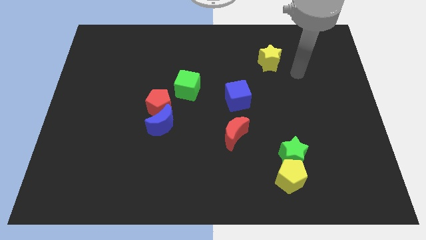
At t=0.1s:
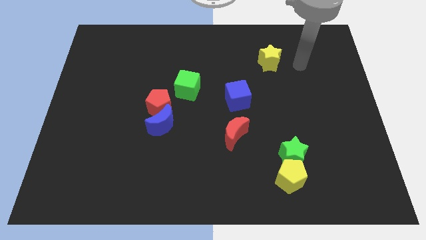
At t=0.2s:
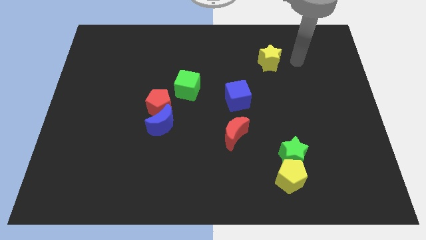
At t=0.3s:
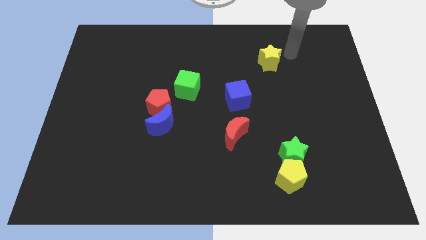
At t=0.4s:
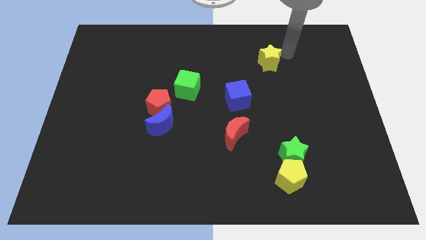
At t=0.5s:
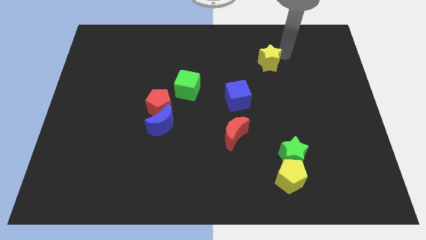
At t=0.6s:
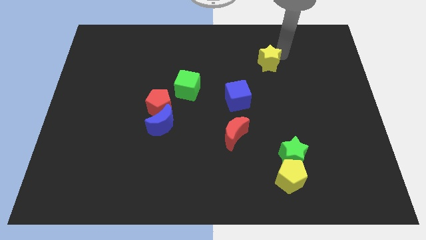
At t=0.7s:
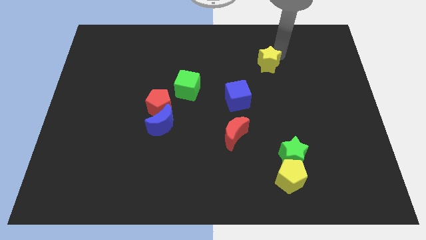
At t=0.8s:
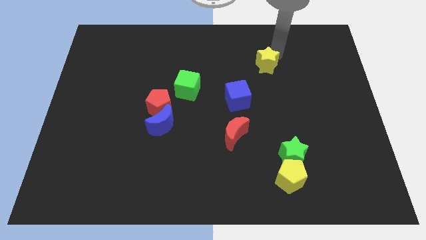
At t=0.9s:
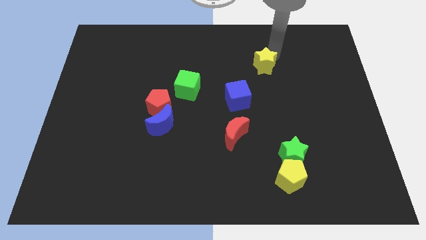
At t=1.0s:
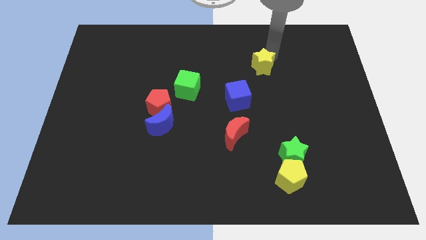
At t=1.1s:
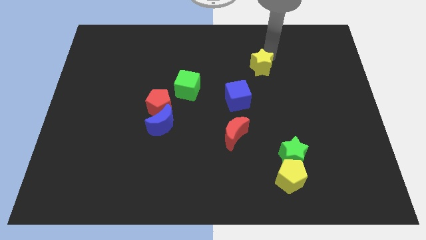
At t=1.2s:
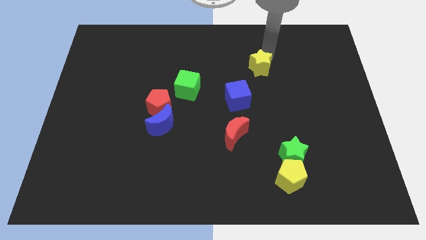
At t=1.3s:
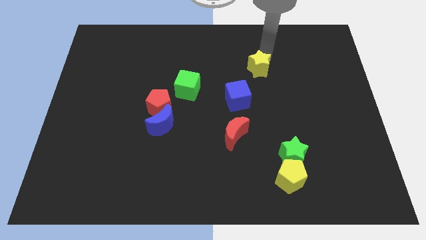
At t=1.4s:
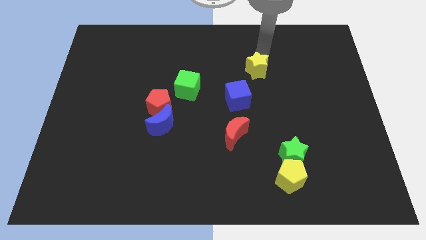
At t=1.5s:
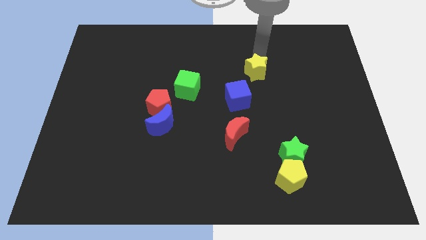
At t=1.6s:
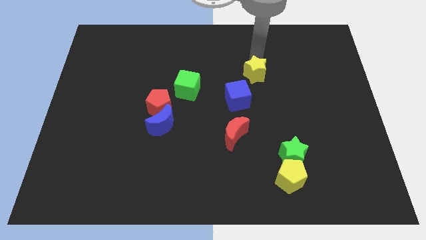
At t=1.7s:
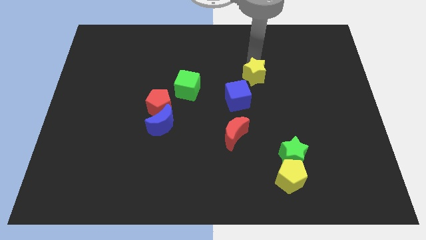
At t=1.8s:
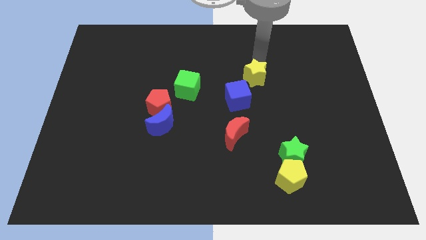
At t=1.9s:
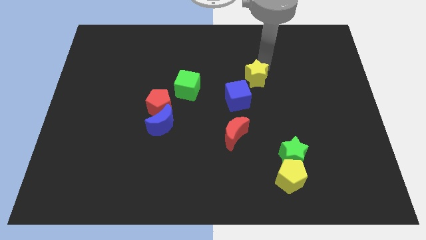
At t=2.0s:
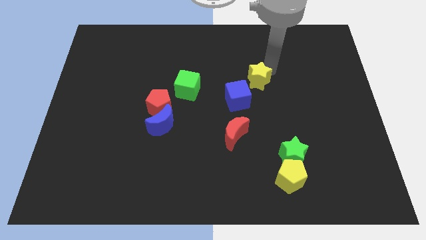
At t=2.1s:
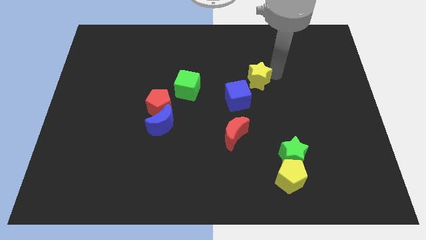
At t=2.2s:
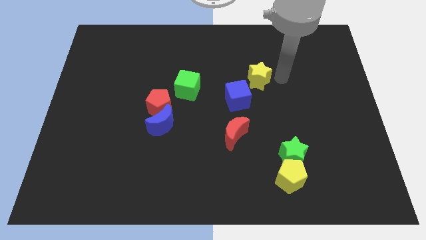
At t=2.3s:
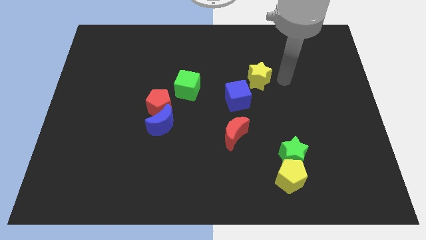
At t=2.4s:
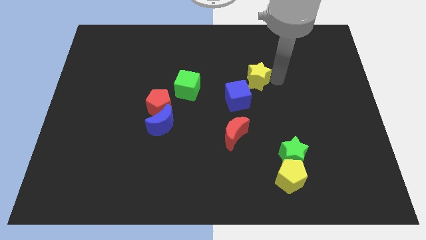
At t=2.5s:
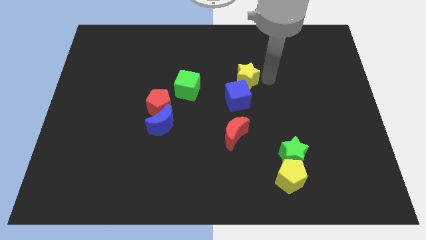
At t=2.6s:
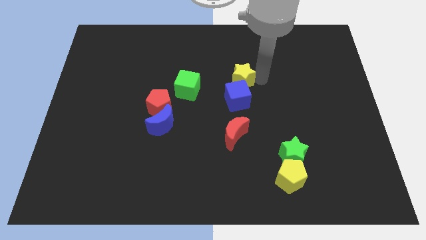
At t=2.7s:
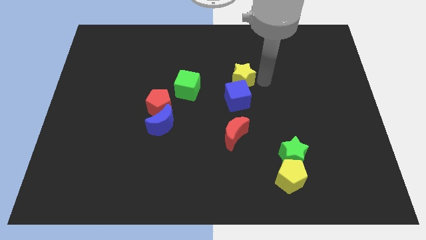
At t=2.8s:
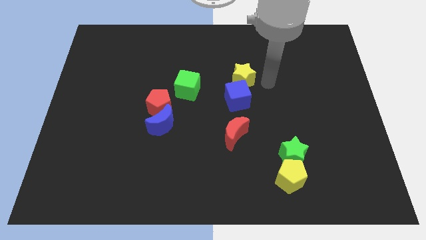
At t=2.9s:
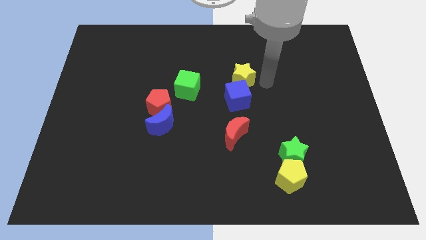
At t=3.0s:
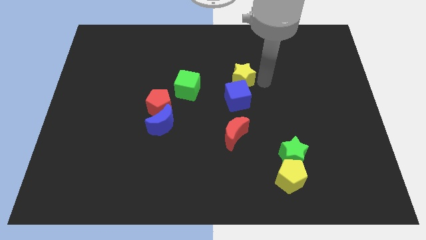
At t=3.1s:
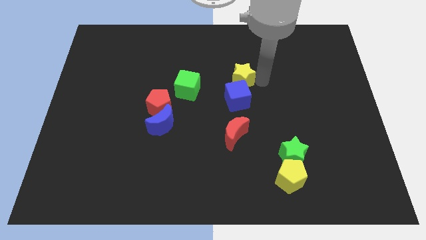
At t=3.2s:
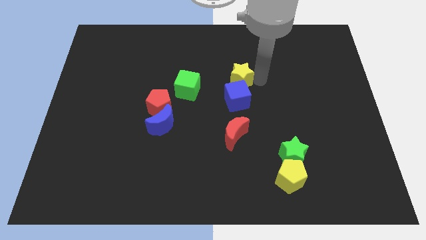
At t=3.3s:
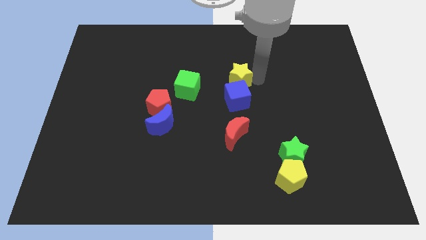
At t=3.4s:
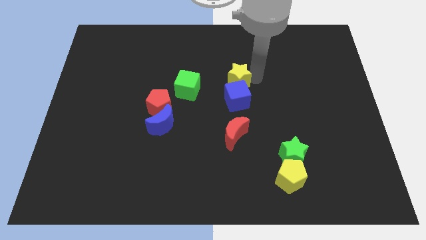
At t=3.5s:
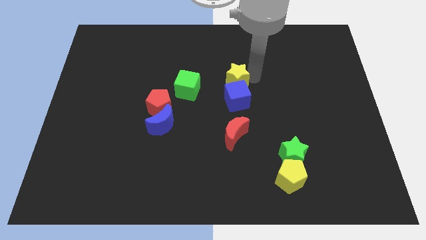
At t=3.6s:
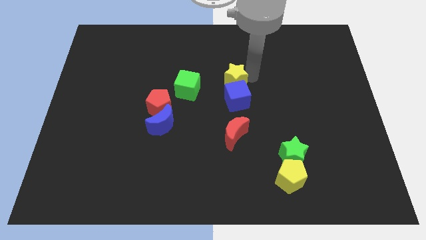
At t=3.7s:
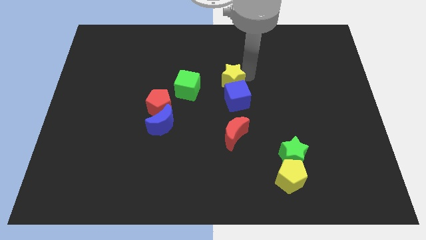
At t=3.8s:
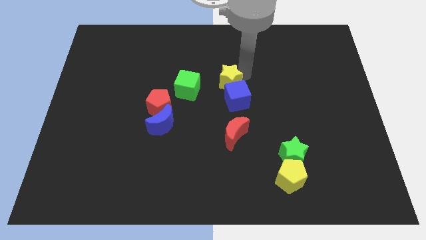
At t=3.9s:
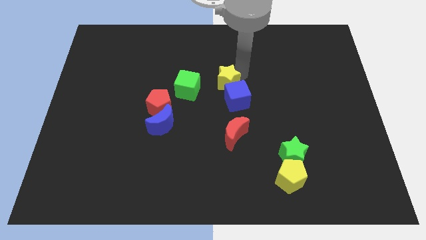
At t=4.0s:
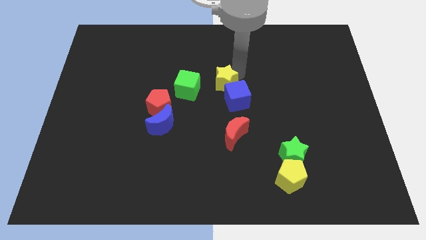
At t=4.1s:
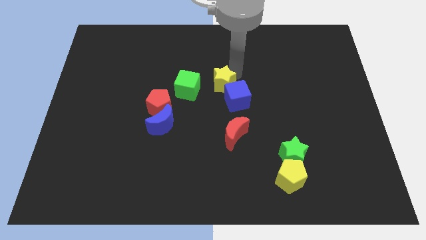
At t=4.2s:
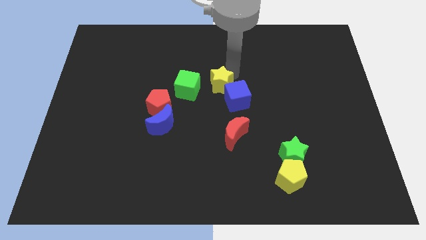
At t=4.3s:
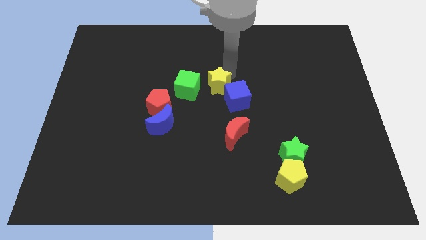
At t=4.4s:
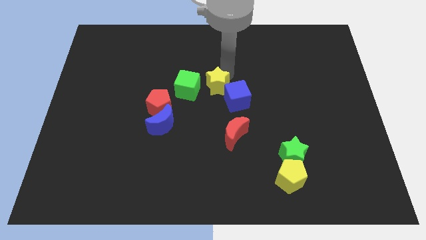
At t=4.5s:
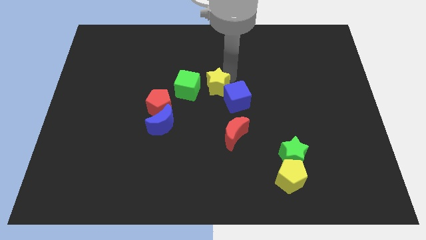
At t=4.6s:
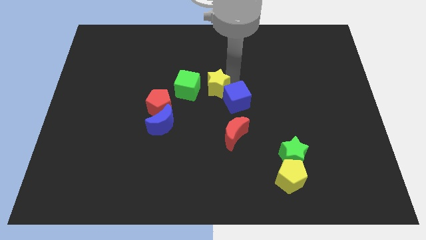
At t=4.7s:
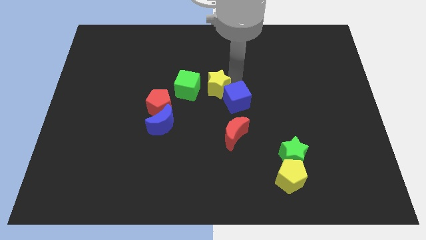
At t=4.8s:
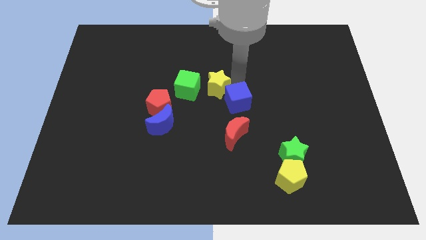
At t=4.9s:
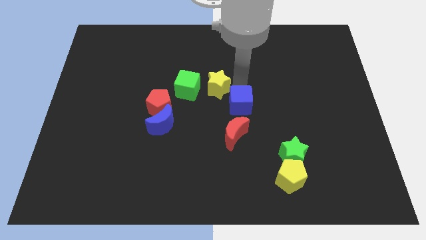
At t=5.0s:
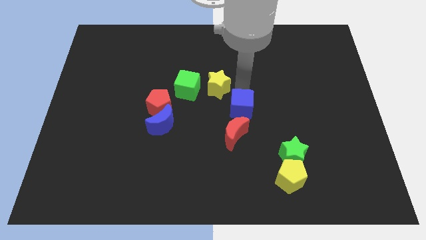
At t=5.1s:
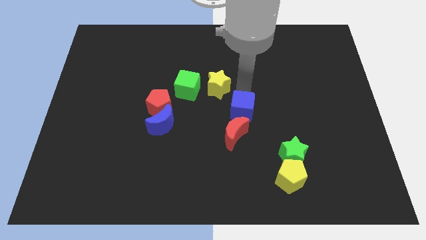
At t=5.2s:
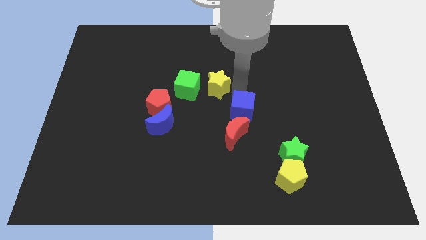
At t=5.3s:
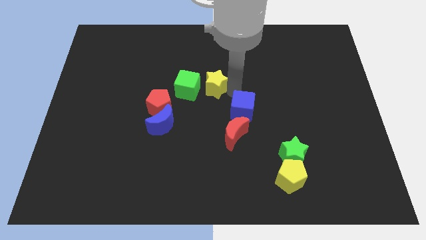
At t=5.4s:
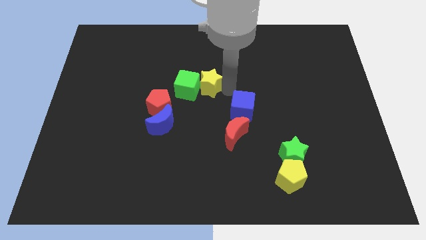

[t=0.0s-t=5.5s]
push the yellow star close to the green cube

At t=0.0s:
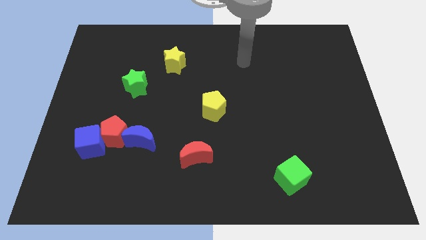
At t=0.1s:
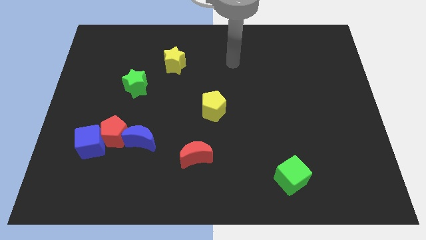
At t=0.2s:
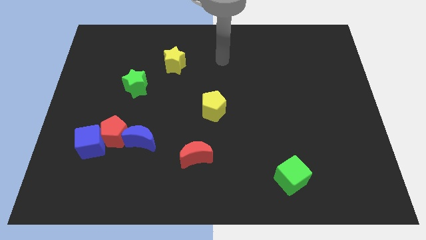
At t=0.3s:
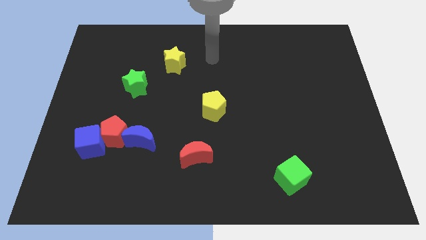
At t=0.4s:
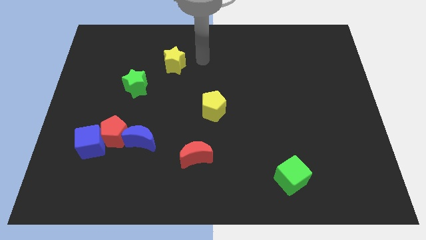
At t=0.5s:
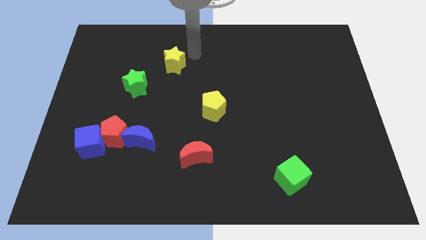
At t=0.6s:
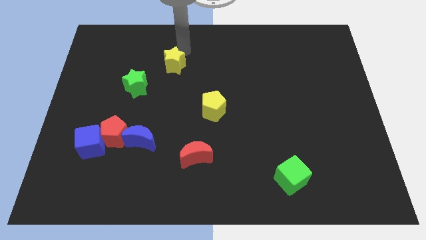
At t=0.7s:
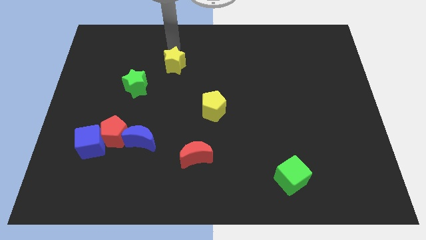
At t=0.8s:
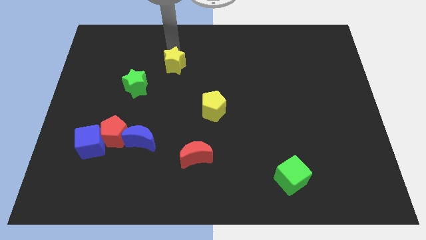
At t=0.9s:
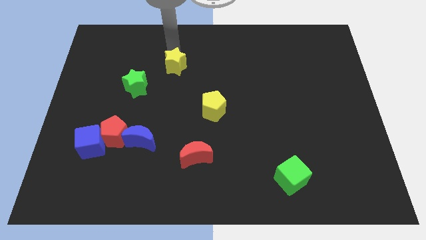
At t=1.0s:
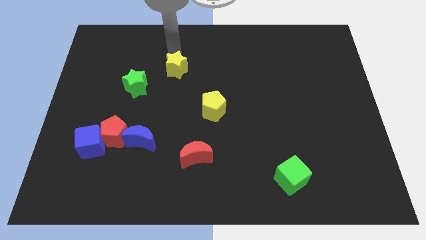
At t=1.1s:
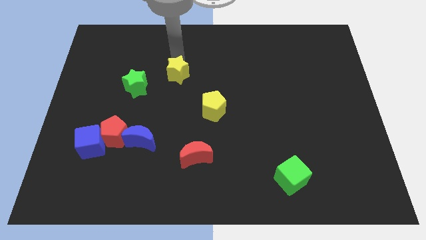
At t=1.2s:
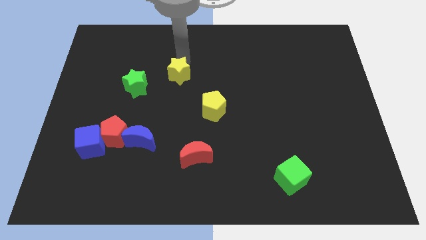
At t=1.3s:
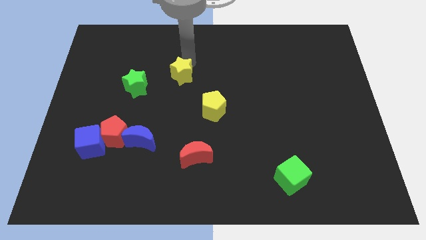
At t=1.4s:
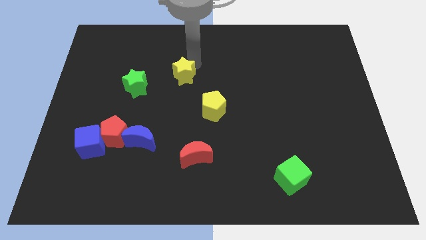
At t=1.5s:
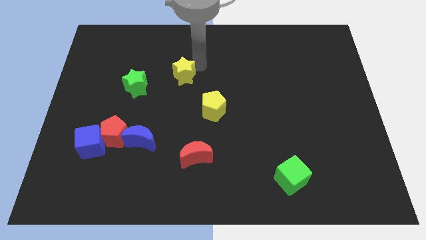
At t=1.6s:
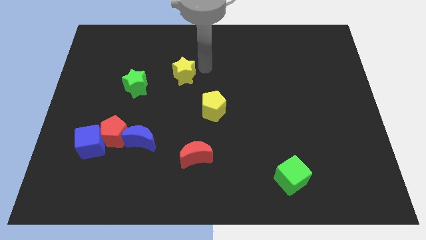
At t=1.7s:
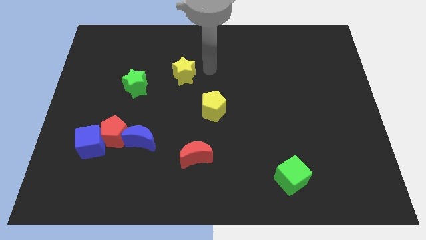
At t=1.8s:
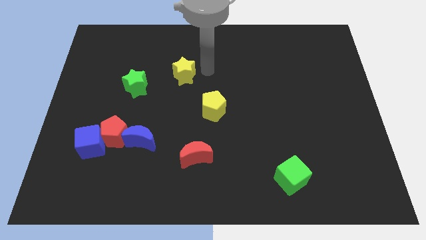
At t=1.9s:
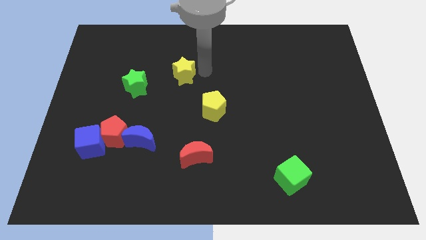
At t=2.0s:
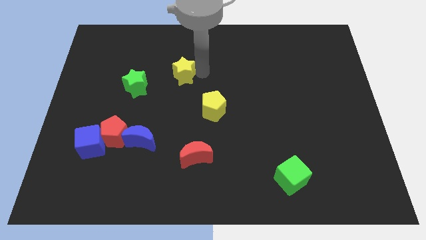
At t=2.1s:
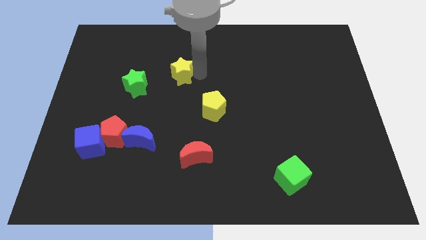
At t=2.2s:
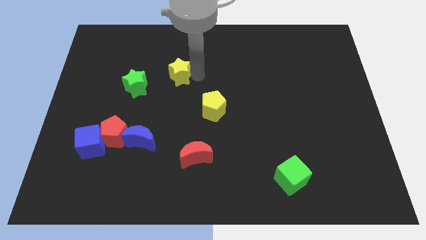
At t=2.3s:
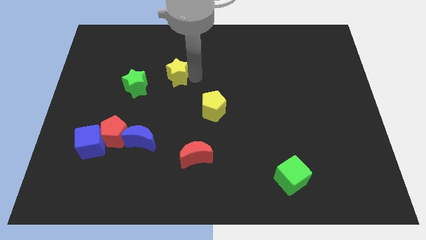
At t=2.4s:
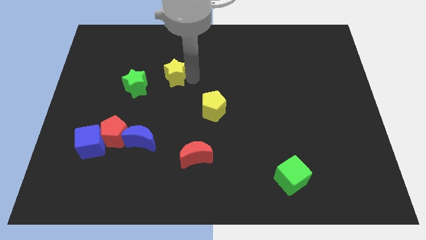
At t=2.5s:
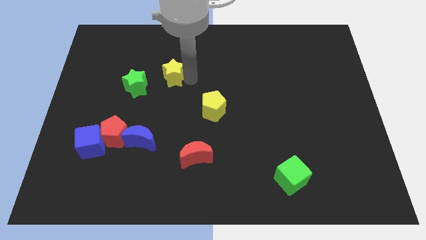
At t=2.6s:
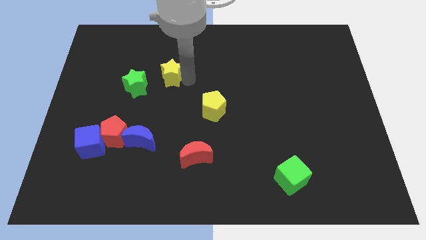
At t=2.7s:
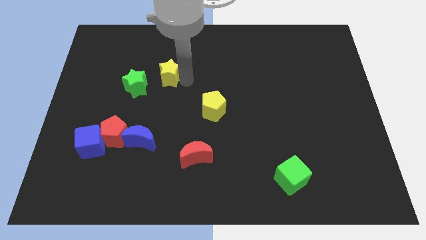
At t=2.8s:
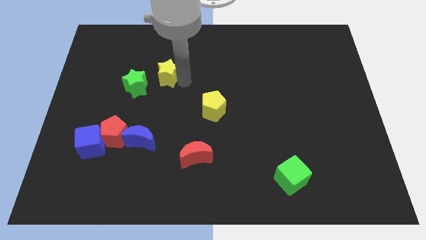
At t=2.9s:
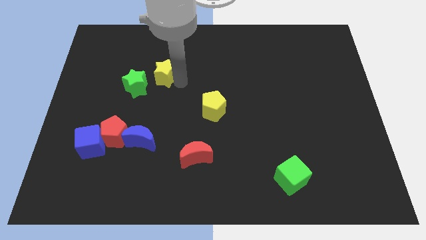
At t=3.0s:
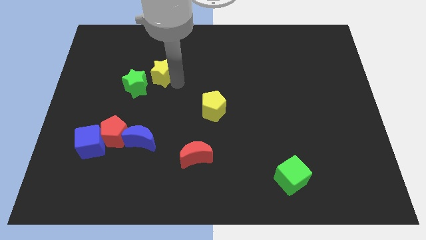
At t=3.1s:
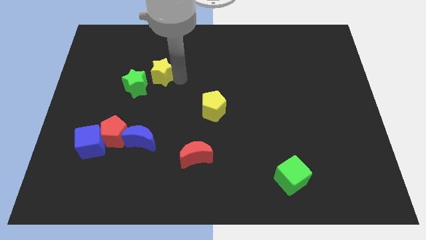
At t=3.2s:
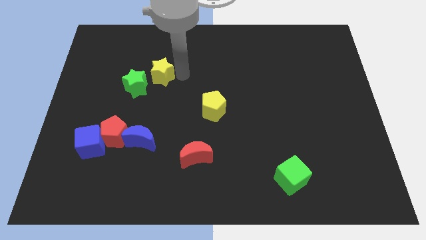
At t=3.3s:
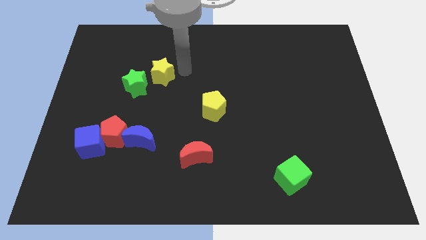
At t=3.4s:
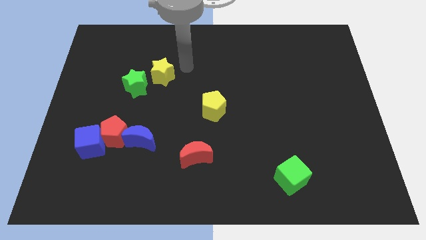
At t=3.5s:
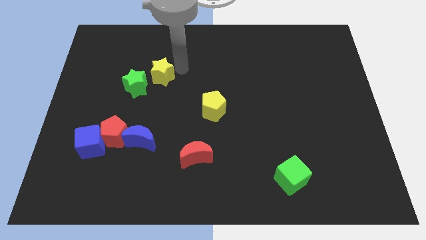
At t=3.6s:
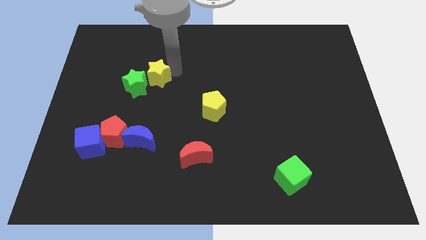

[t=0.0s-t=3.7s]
move the yellow star to the green star
